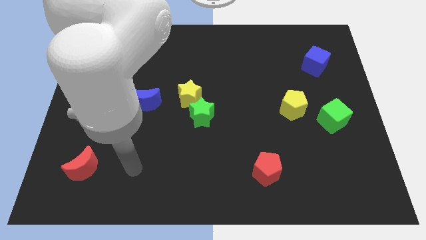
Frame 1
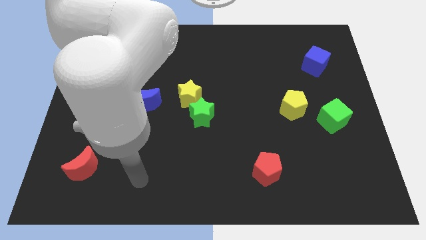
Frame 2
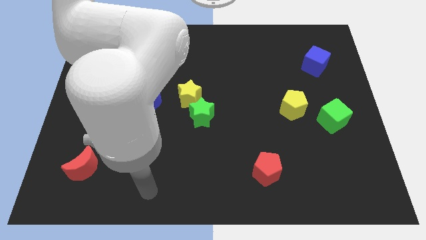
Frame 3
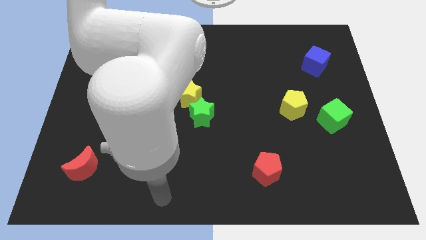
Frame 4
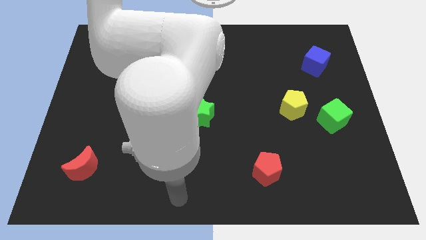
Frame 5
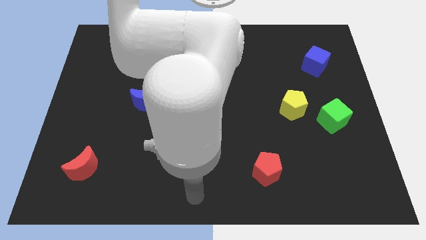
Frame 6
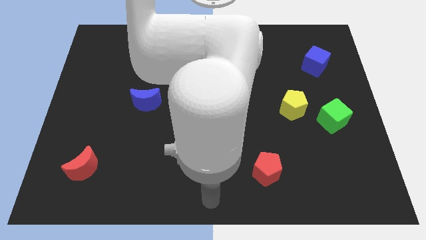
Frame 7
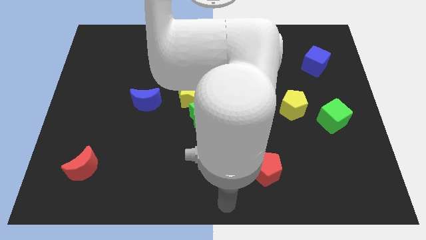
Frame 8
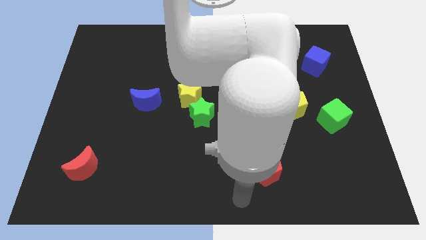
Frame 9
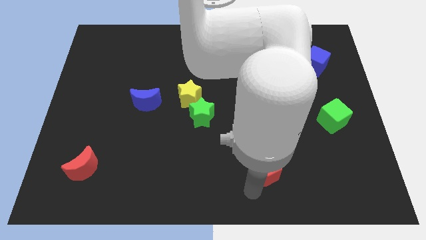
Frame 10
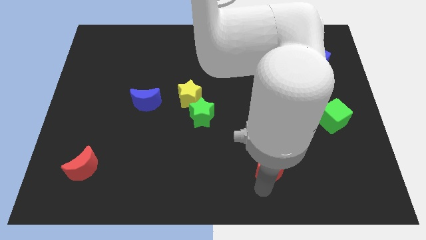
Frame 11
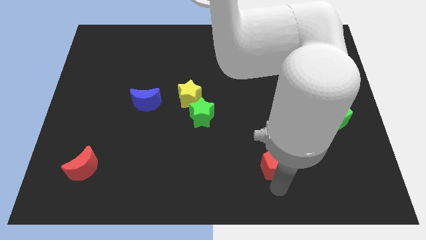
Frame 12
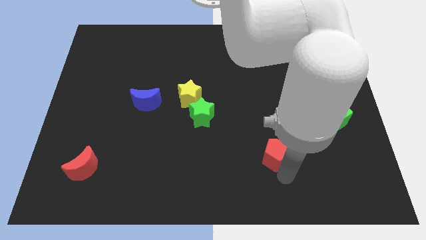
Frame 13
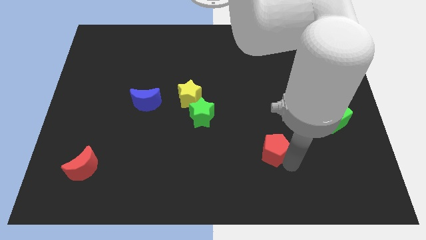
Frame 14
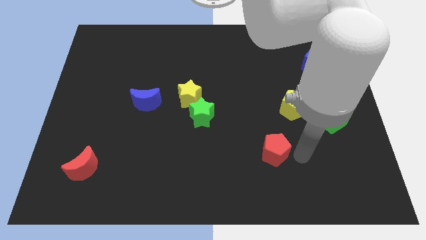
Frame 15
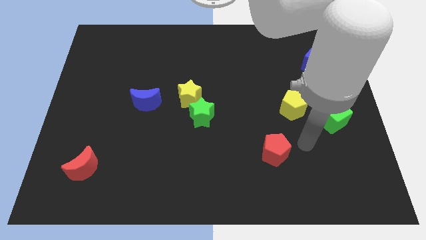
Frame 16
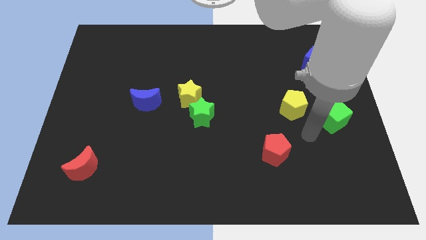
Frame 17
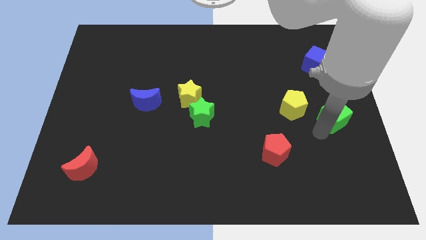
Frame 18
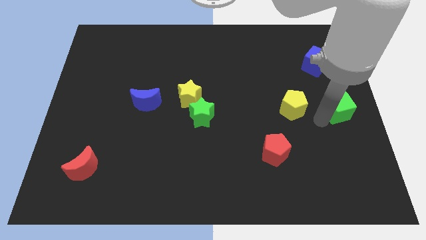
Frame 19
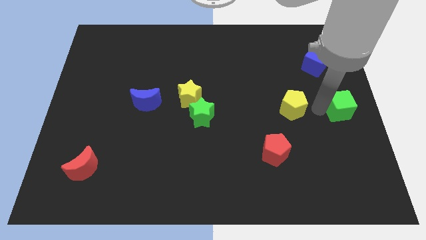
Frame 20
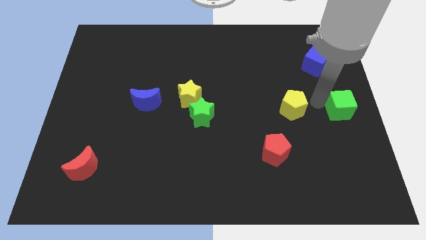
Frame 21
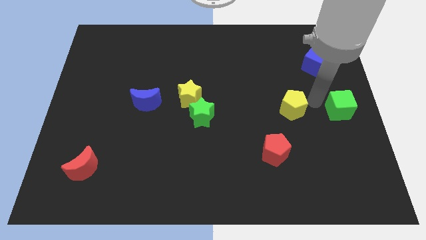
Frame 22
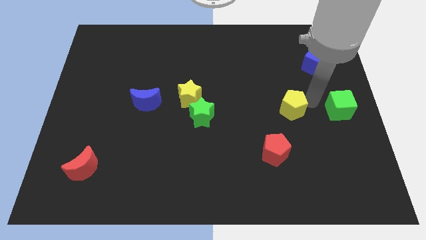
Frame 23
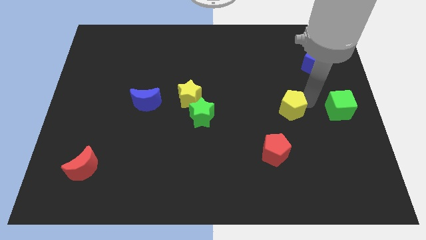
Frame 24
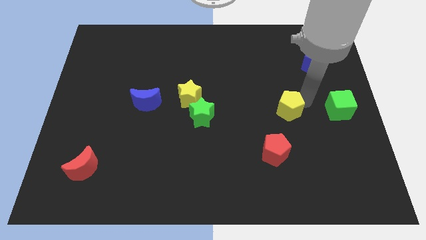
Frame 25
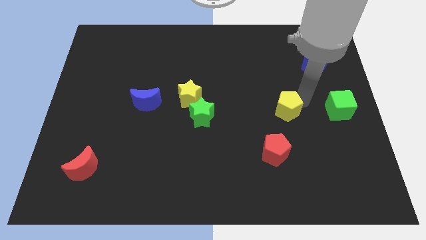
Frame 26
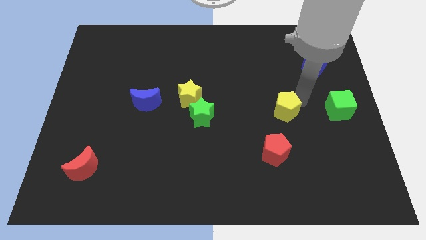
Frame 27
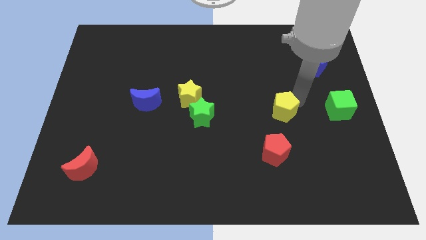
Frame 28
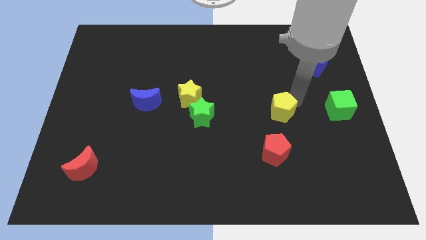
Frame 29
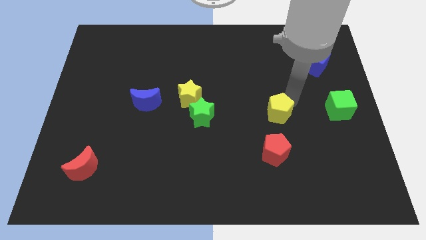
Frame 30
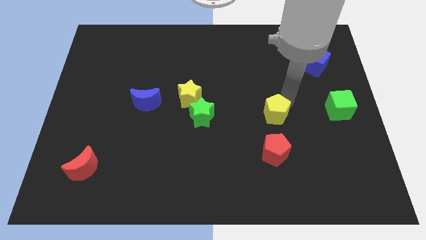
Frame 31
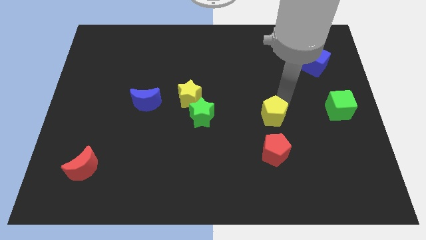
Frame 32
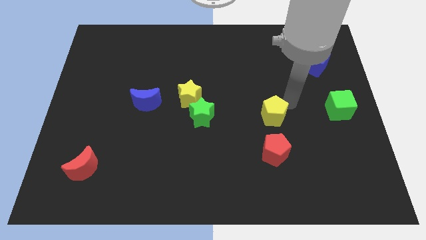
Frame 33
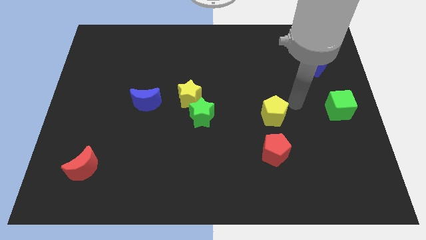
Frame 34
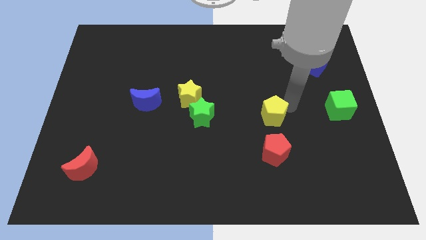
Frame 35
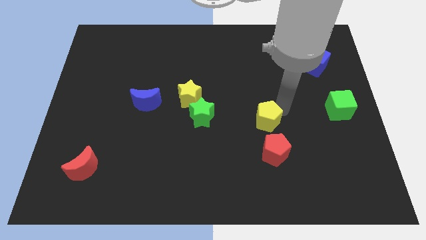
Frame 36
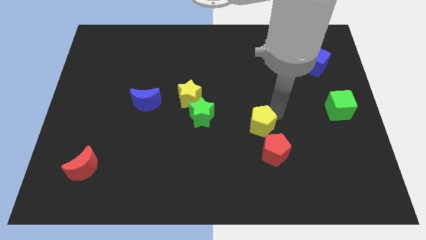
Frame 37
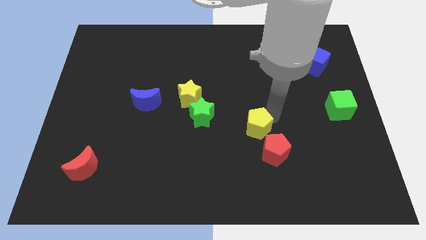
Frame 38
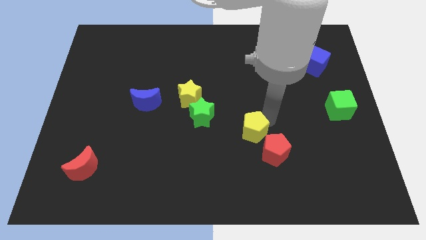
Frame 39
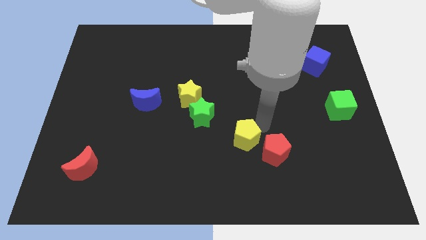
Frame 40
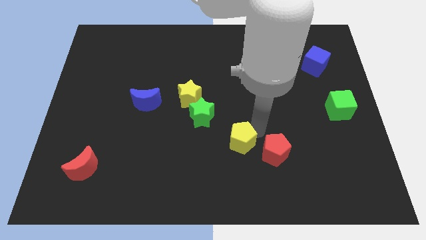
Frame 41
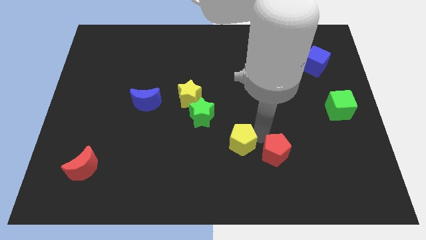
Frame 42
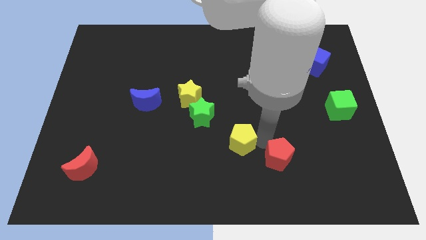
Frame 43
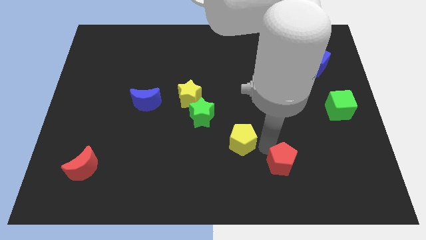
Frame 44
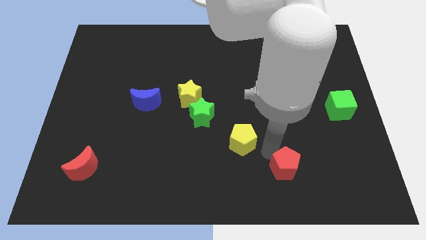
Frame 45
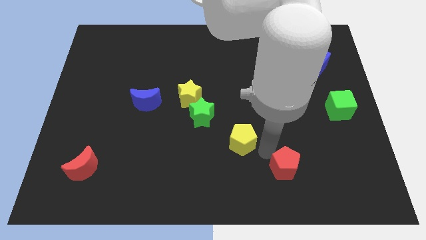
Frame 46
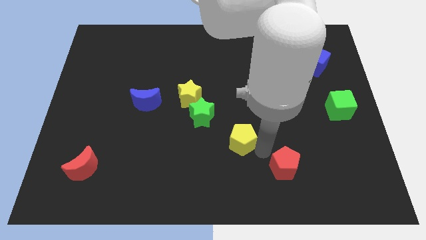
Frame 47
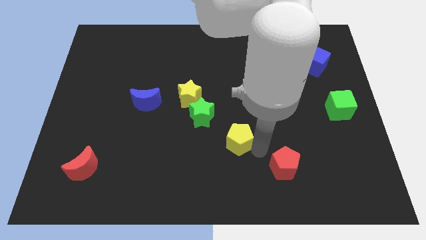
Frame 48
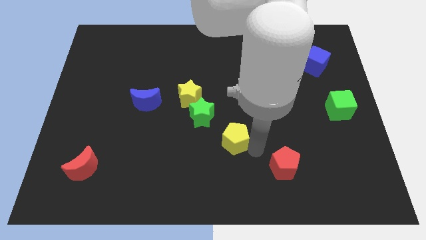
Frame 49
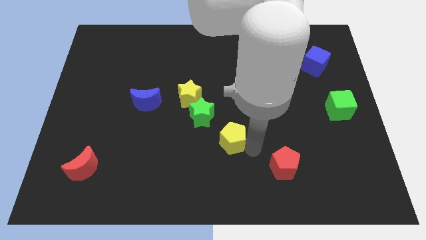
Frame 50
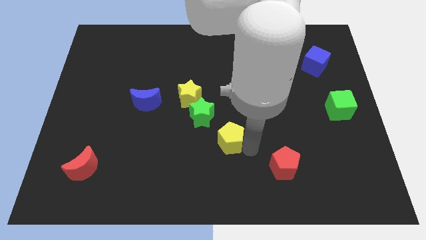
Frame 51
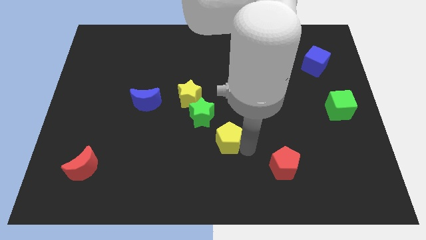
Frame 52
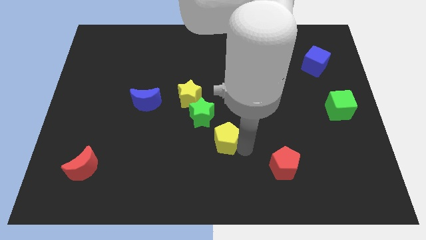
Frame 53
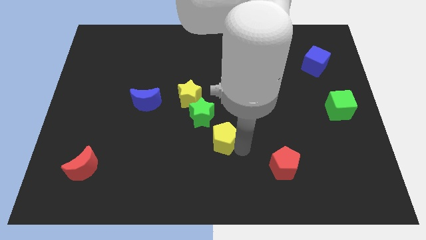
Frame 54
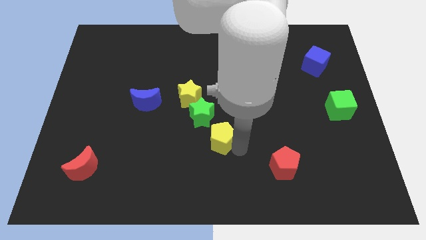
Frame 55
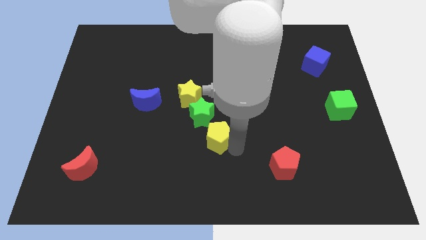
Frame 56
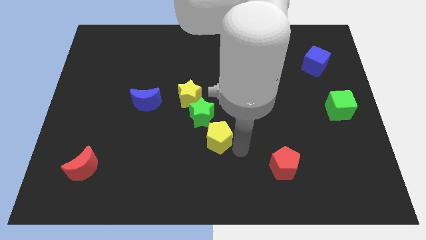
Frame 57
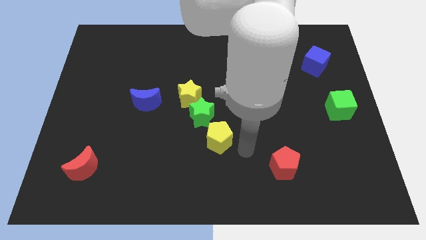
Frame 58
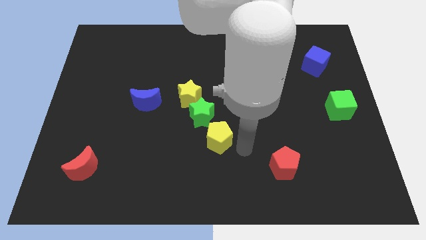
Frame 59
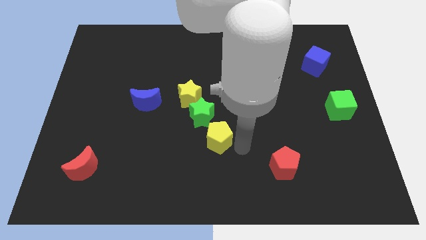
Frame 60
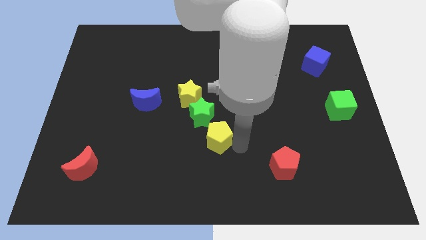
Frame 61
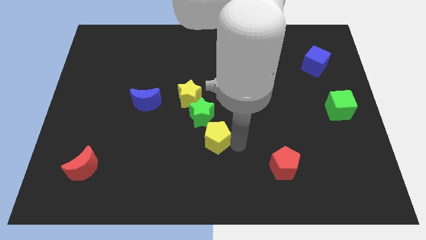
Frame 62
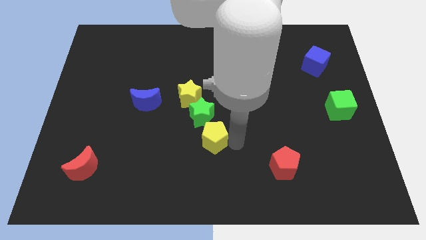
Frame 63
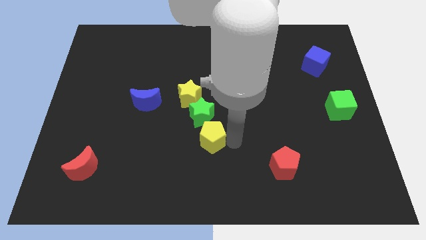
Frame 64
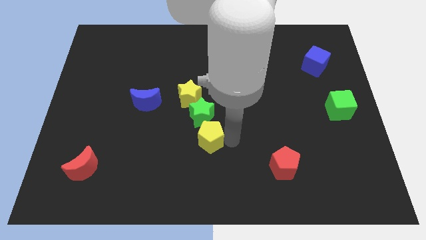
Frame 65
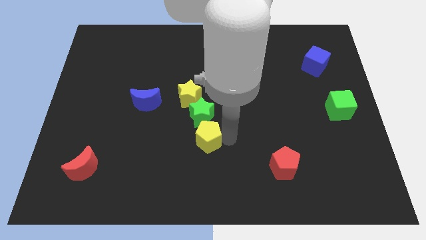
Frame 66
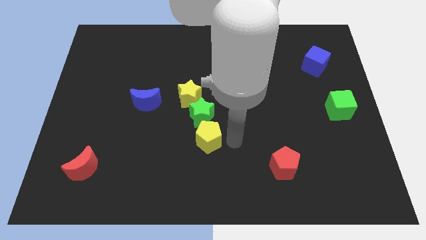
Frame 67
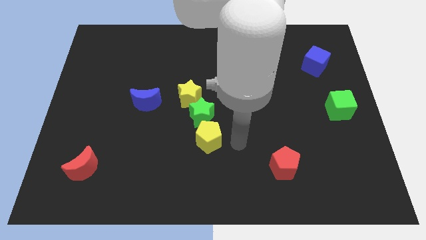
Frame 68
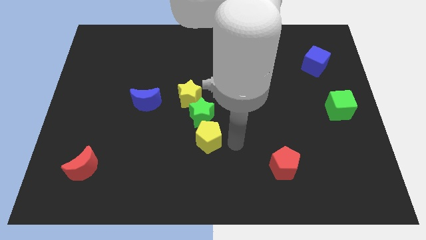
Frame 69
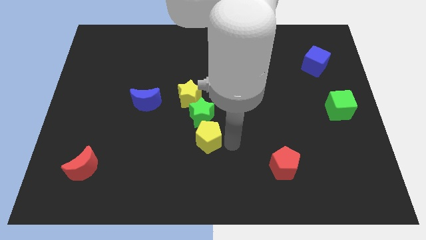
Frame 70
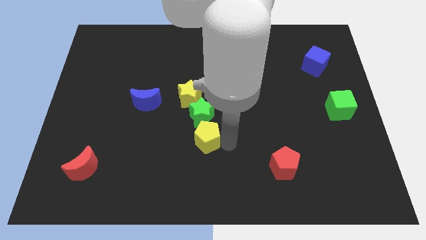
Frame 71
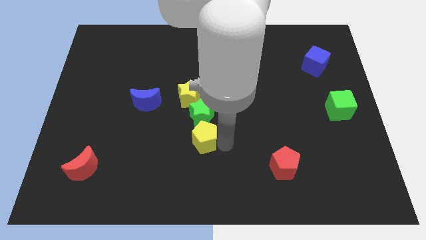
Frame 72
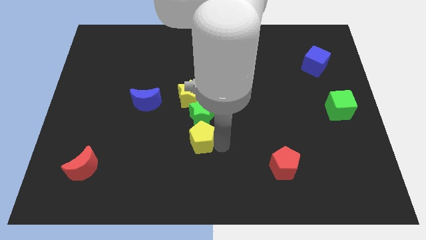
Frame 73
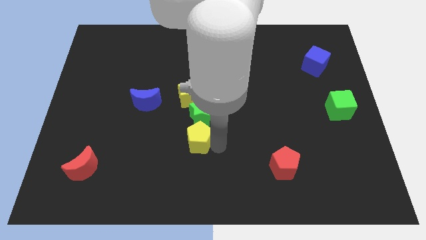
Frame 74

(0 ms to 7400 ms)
put the yellow pentagon to the bottom left of the green star

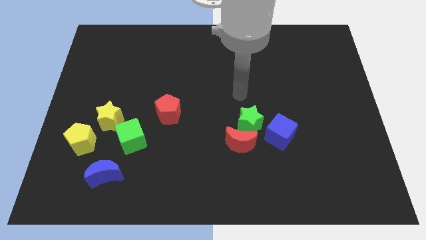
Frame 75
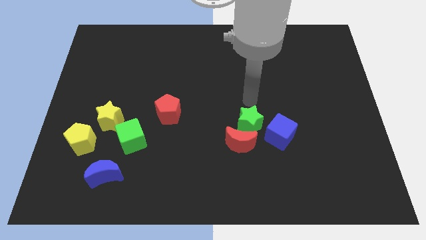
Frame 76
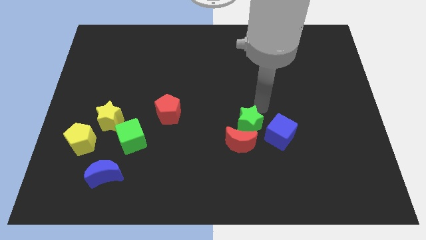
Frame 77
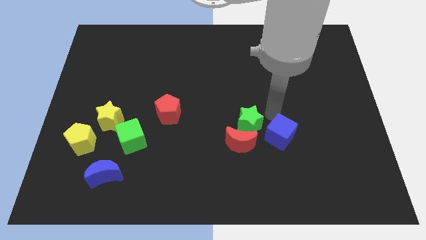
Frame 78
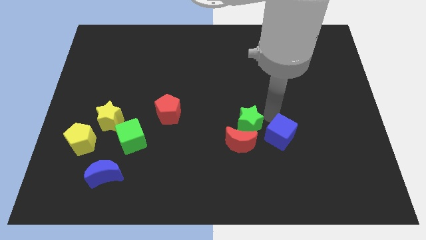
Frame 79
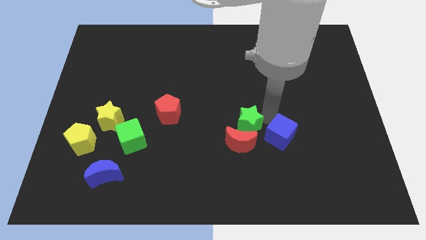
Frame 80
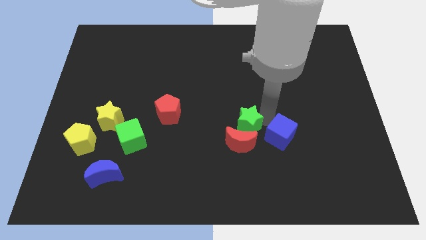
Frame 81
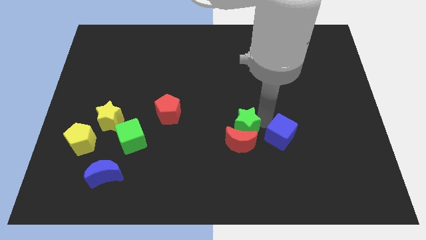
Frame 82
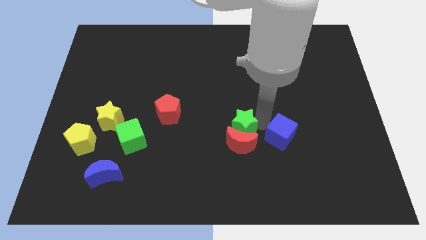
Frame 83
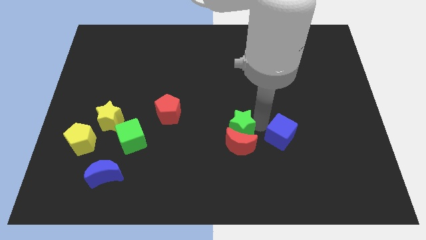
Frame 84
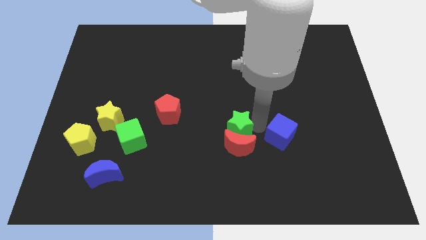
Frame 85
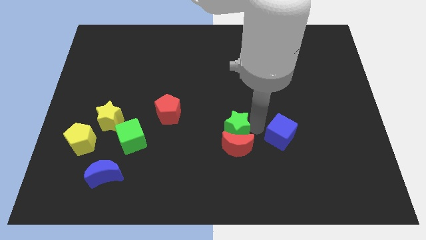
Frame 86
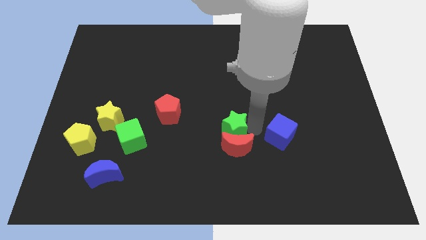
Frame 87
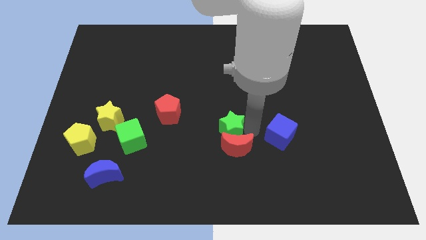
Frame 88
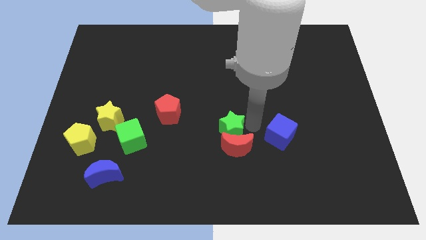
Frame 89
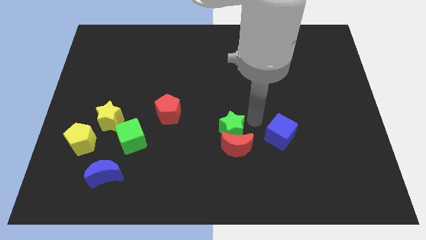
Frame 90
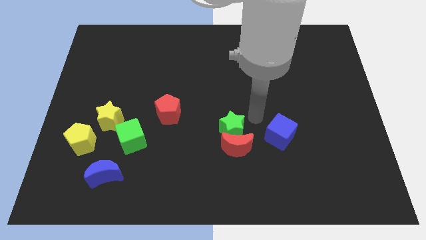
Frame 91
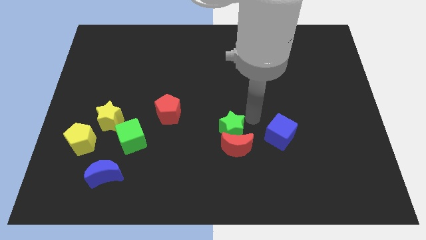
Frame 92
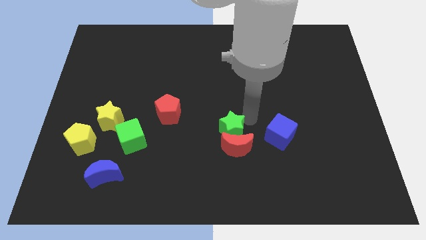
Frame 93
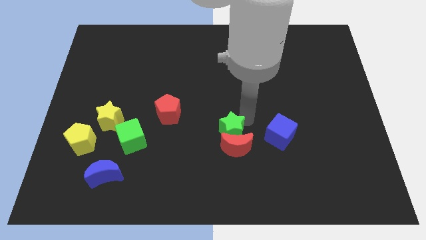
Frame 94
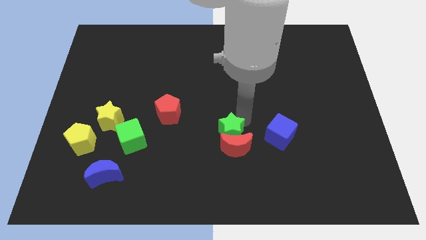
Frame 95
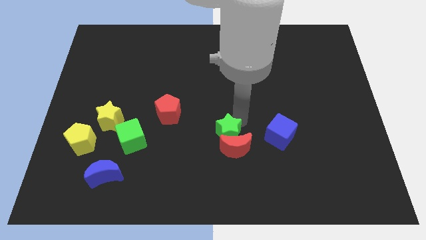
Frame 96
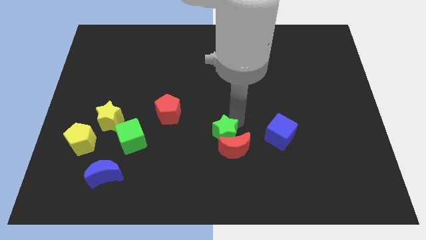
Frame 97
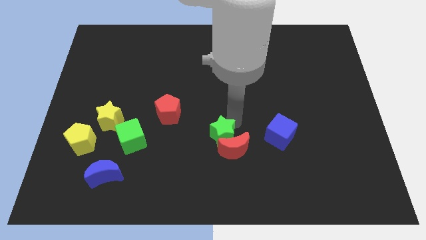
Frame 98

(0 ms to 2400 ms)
move the green star to the left of the red moon
